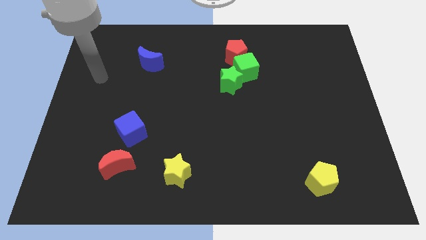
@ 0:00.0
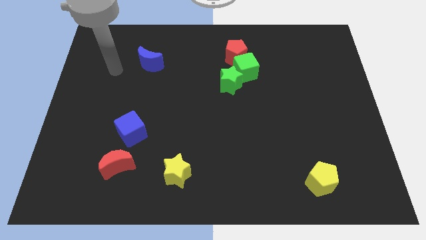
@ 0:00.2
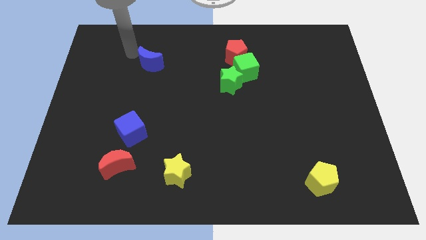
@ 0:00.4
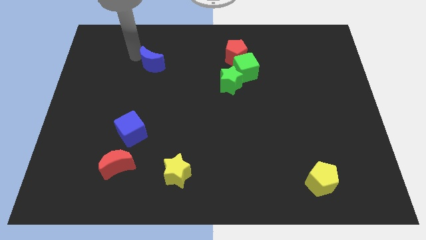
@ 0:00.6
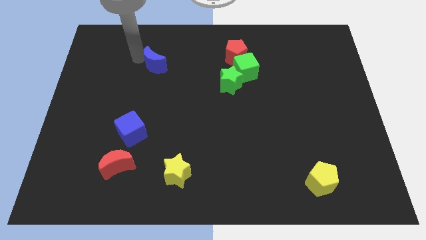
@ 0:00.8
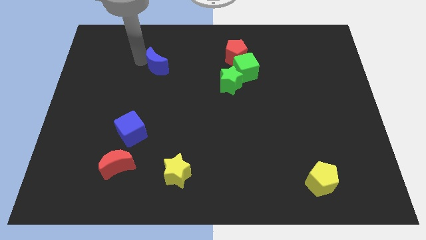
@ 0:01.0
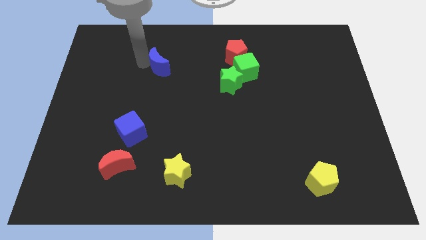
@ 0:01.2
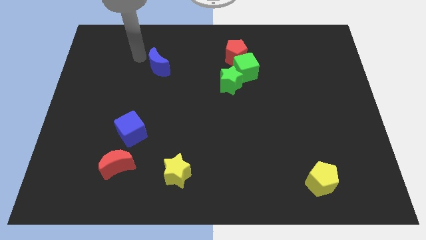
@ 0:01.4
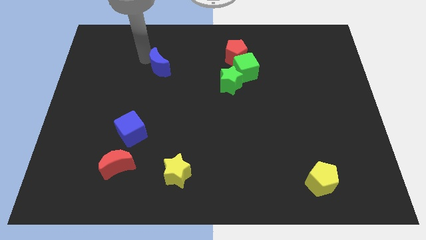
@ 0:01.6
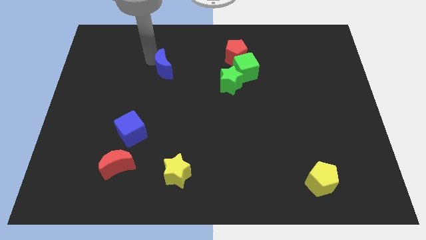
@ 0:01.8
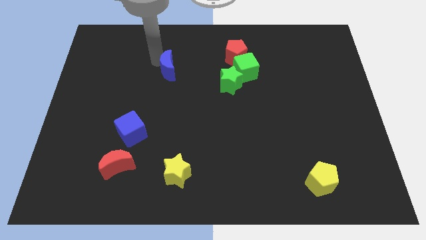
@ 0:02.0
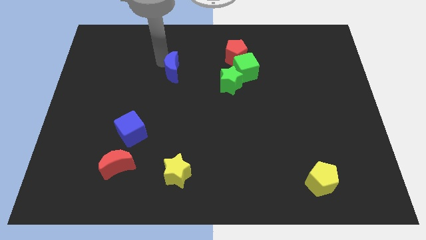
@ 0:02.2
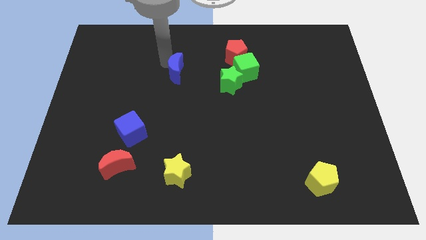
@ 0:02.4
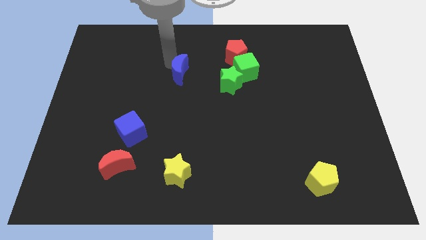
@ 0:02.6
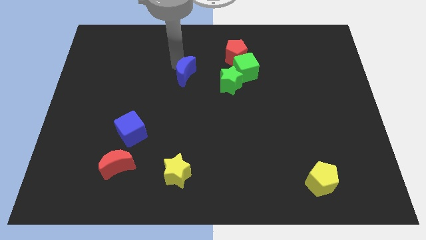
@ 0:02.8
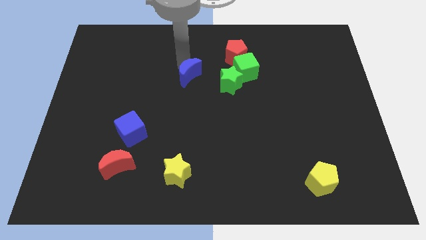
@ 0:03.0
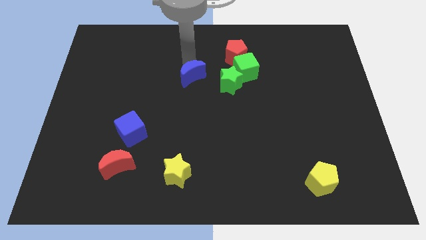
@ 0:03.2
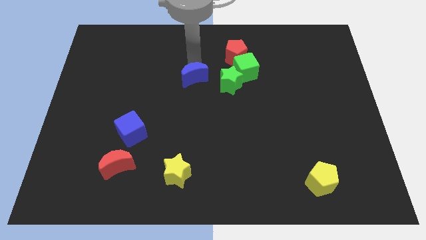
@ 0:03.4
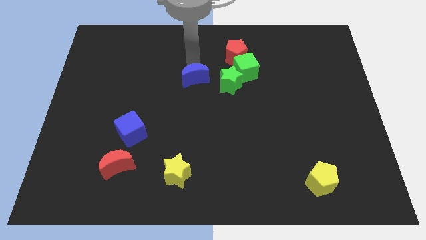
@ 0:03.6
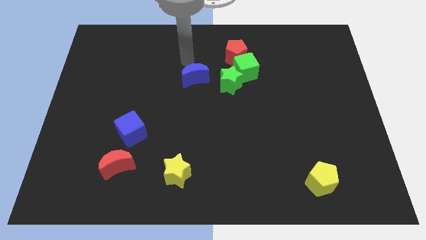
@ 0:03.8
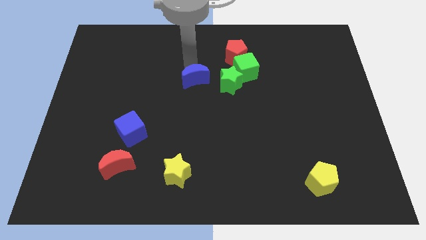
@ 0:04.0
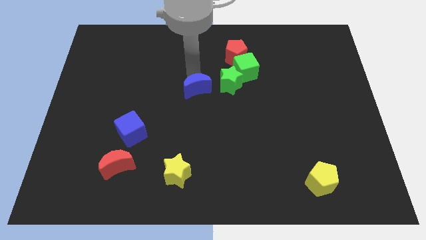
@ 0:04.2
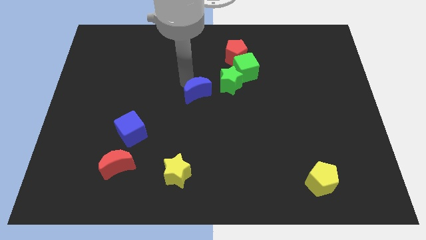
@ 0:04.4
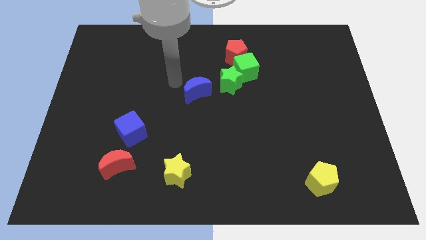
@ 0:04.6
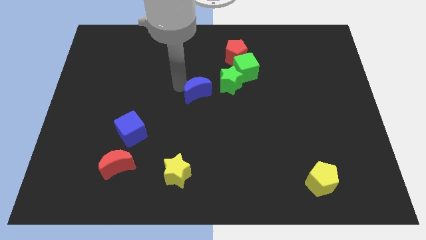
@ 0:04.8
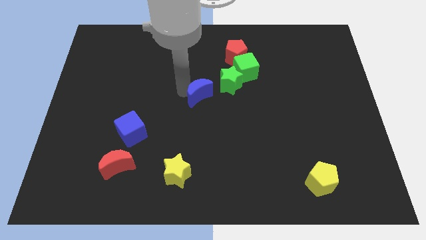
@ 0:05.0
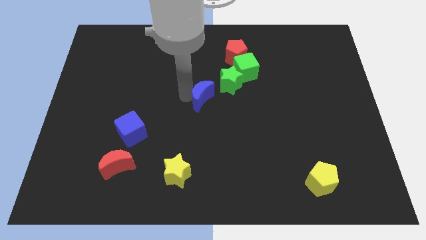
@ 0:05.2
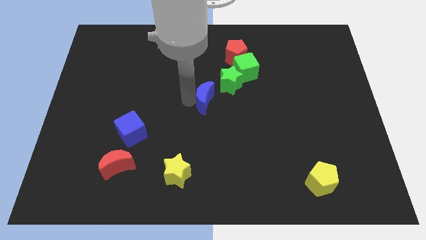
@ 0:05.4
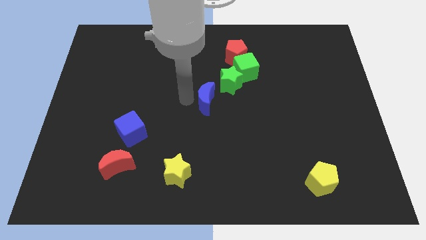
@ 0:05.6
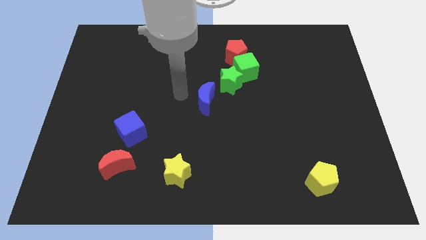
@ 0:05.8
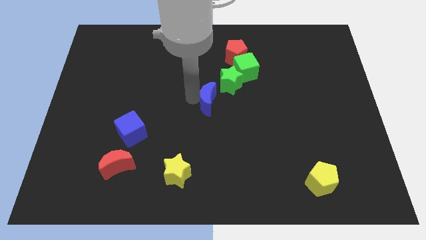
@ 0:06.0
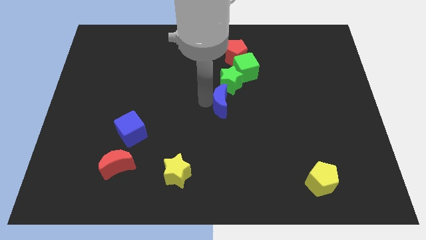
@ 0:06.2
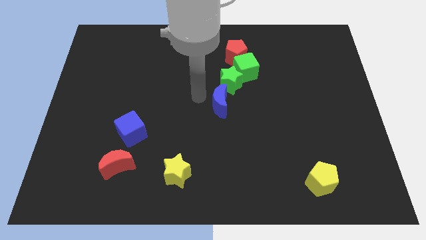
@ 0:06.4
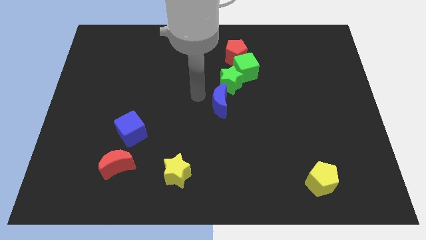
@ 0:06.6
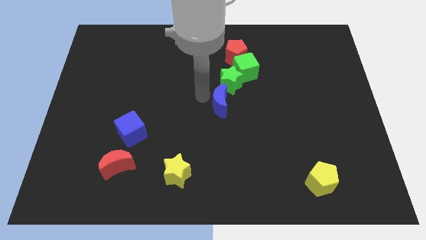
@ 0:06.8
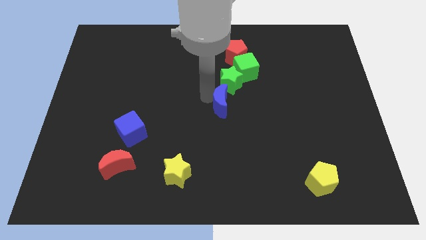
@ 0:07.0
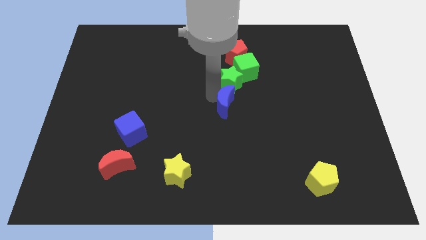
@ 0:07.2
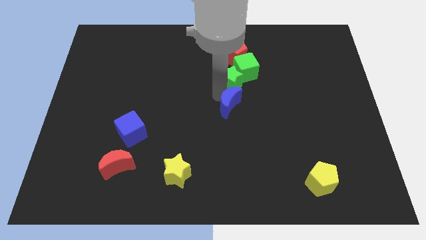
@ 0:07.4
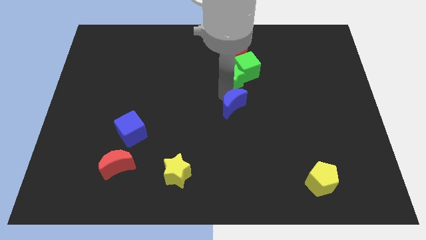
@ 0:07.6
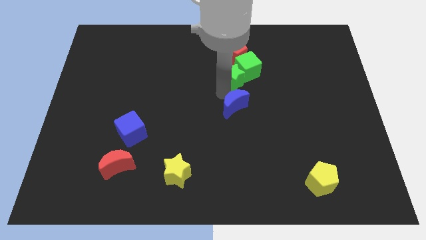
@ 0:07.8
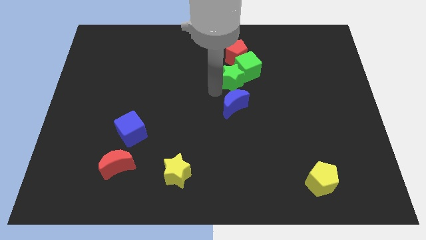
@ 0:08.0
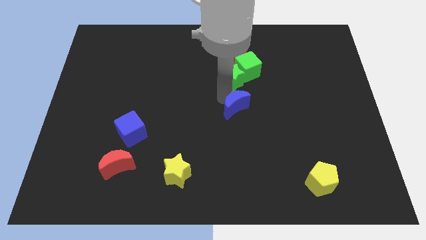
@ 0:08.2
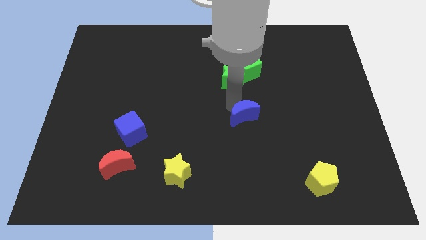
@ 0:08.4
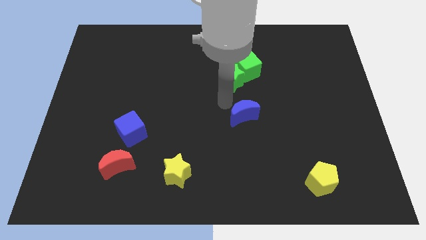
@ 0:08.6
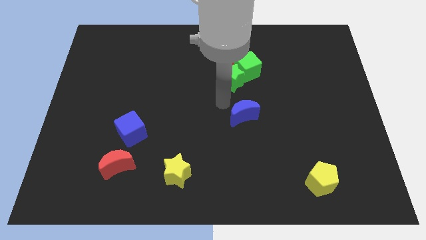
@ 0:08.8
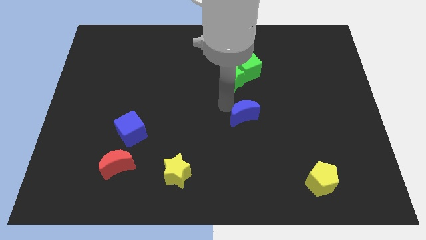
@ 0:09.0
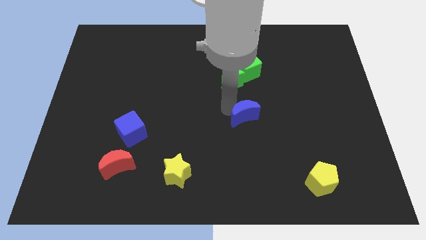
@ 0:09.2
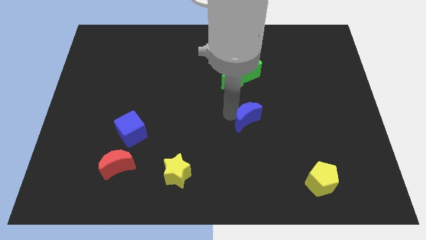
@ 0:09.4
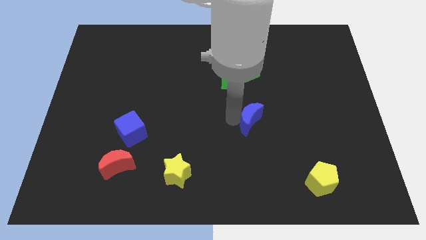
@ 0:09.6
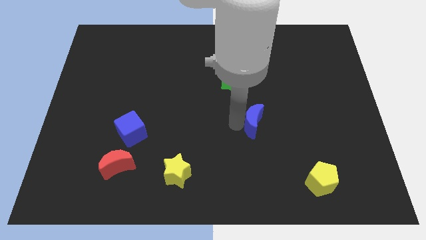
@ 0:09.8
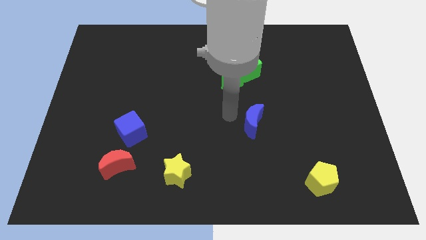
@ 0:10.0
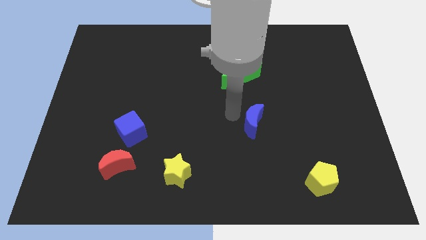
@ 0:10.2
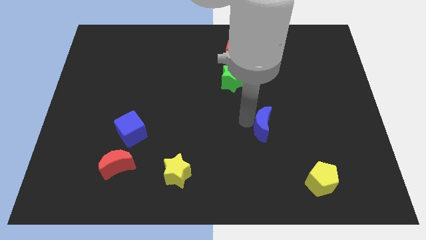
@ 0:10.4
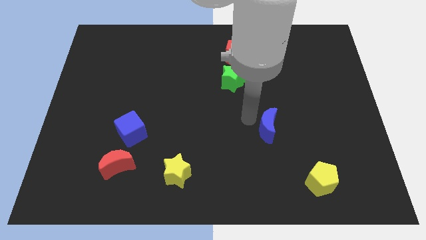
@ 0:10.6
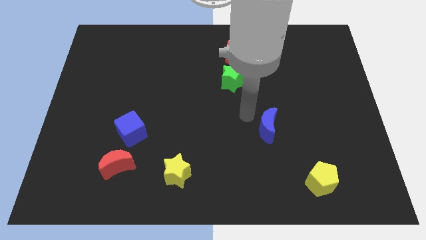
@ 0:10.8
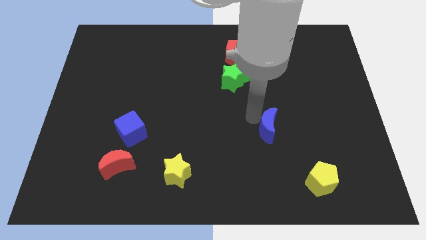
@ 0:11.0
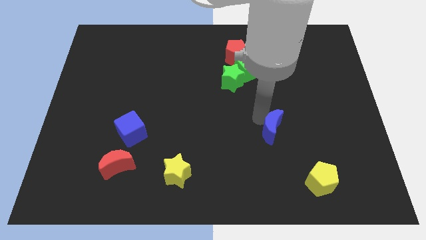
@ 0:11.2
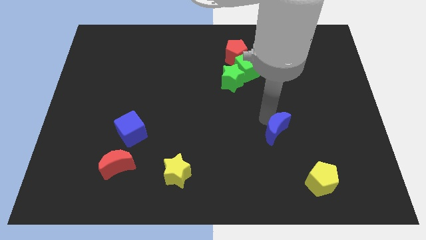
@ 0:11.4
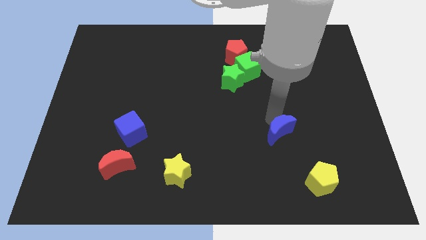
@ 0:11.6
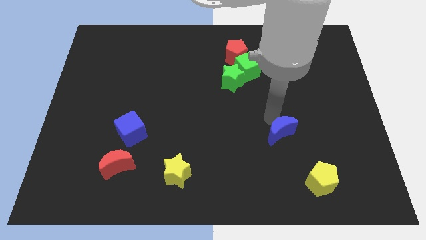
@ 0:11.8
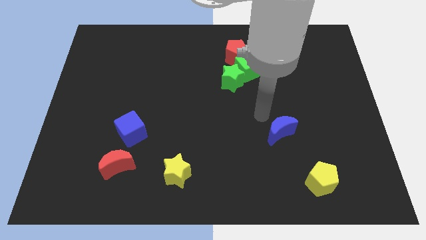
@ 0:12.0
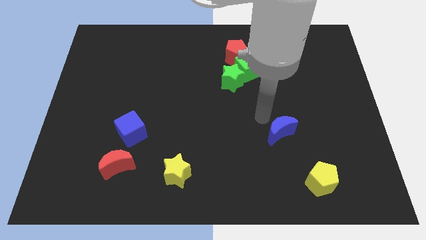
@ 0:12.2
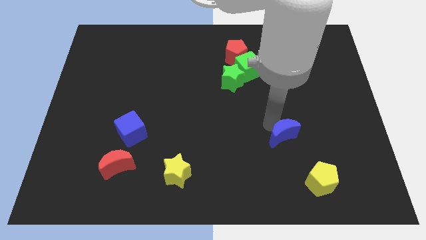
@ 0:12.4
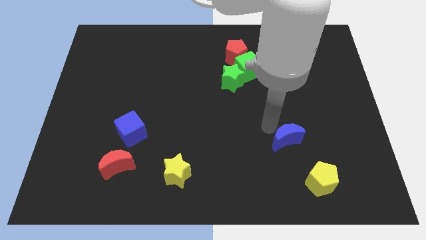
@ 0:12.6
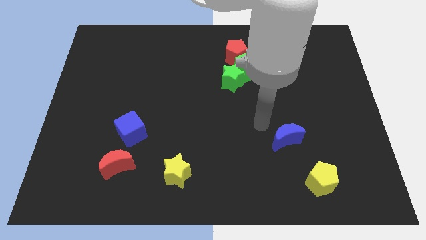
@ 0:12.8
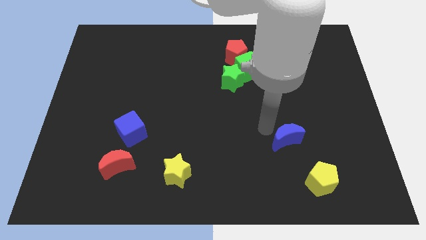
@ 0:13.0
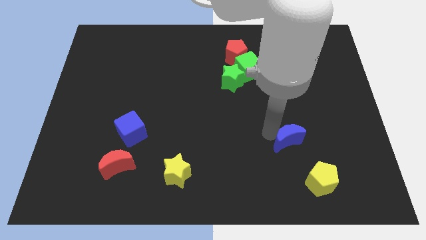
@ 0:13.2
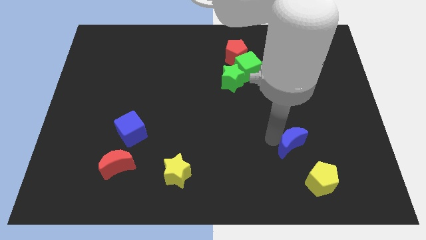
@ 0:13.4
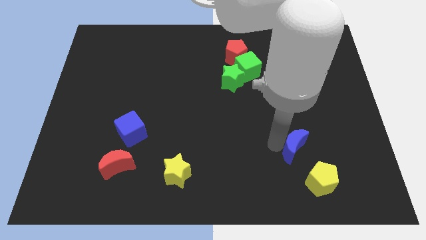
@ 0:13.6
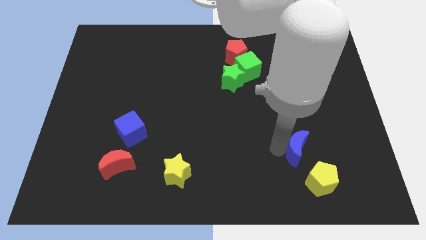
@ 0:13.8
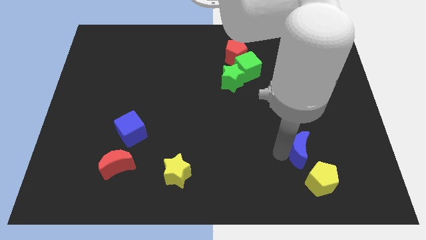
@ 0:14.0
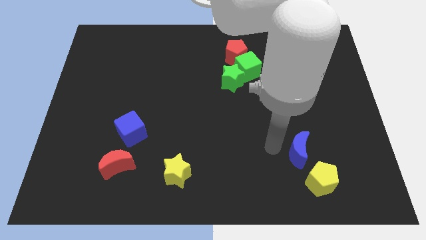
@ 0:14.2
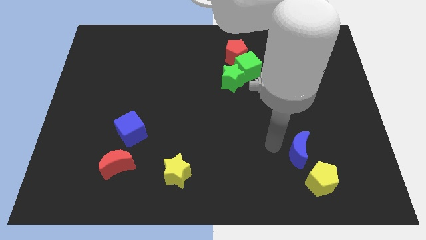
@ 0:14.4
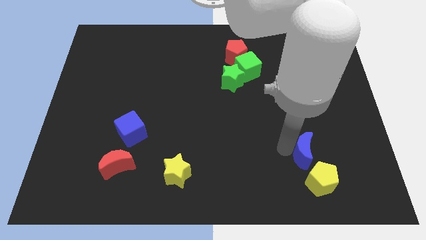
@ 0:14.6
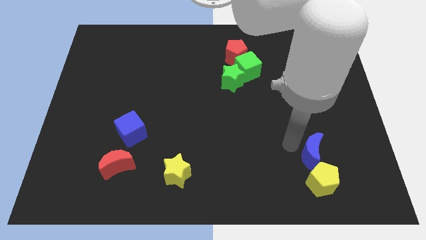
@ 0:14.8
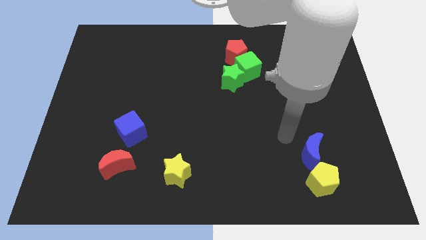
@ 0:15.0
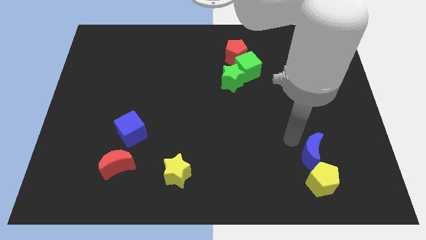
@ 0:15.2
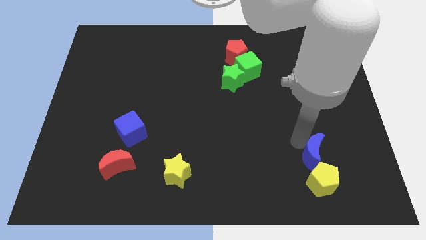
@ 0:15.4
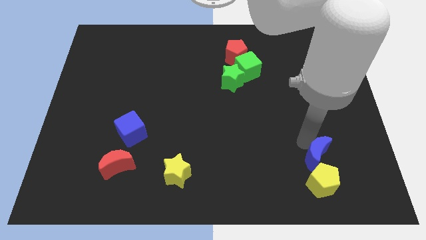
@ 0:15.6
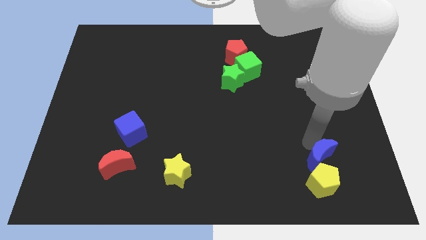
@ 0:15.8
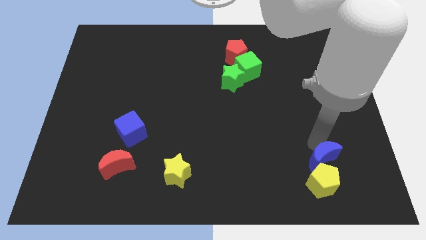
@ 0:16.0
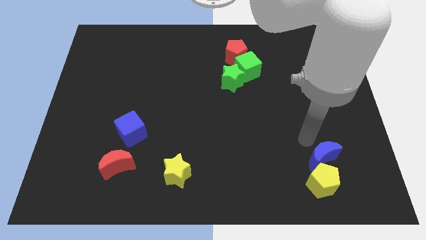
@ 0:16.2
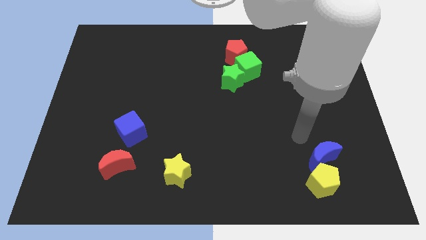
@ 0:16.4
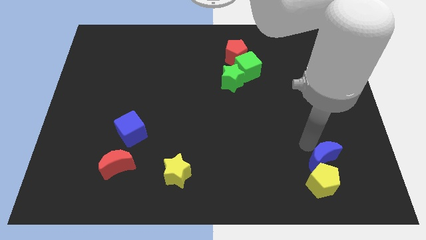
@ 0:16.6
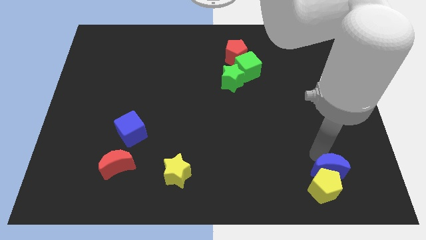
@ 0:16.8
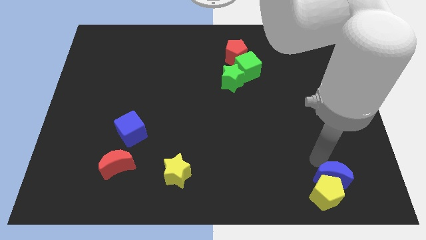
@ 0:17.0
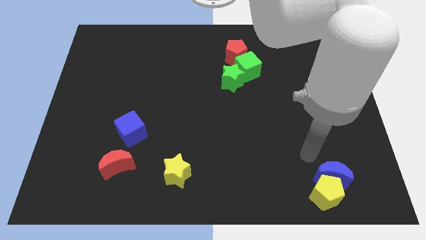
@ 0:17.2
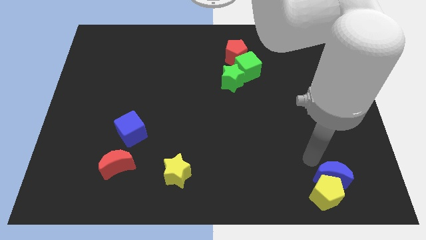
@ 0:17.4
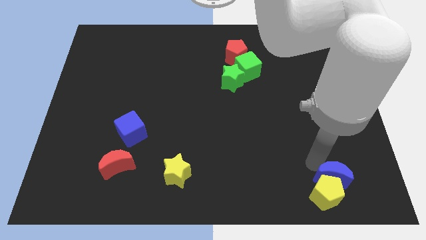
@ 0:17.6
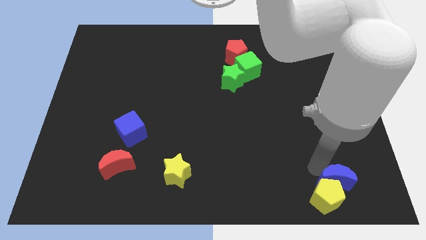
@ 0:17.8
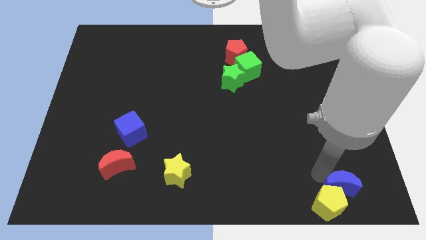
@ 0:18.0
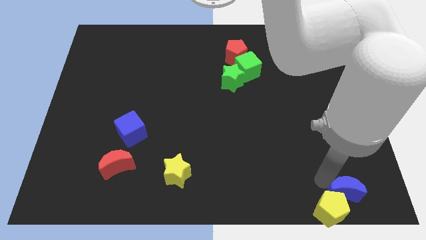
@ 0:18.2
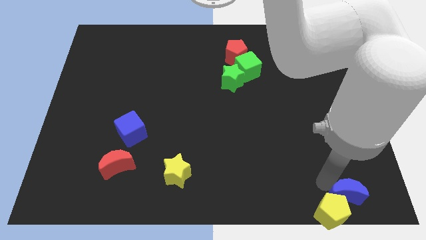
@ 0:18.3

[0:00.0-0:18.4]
slide the blue moon to the bottom right of the board
